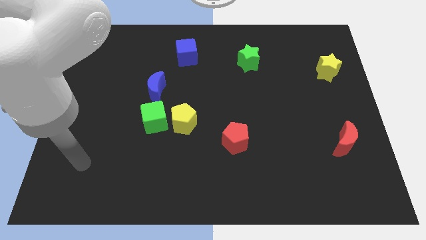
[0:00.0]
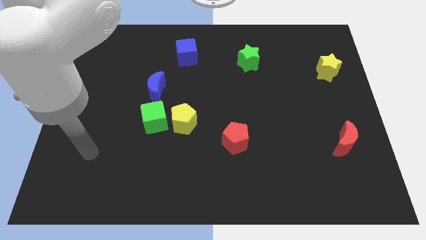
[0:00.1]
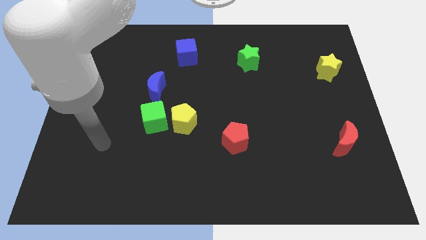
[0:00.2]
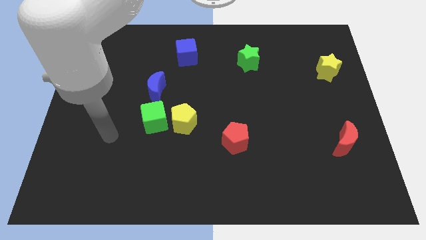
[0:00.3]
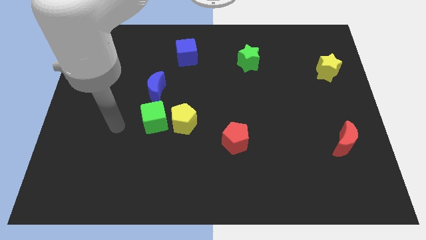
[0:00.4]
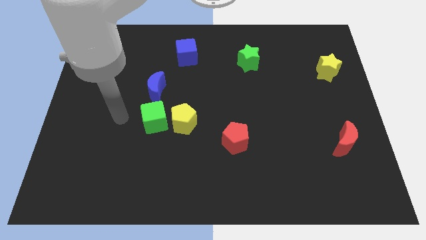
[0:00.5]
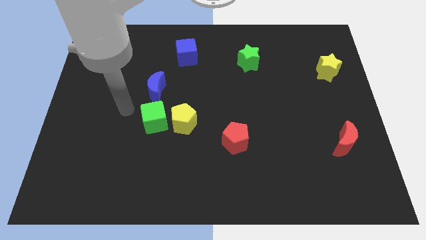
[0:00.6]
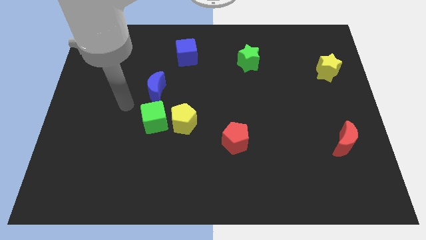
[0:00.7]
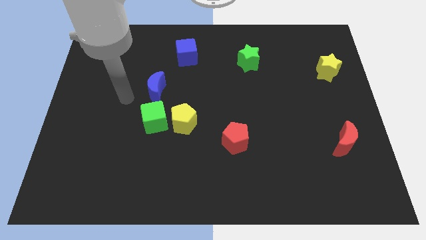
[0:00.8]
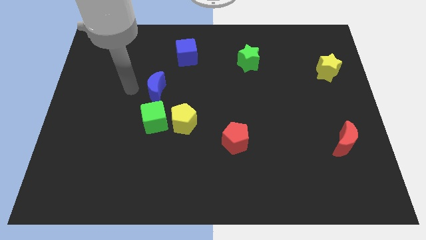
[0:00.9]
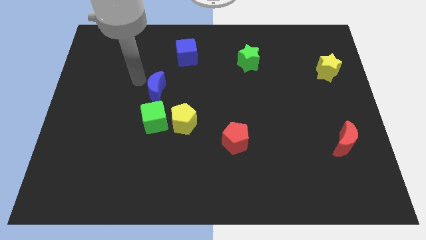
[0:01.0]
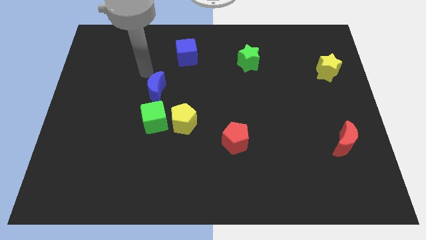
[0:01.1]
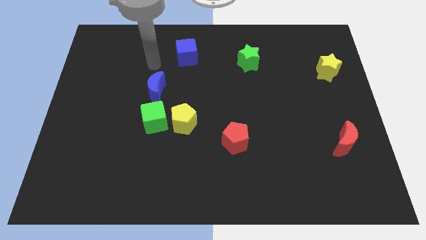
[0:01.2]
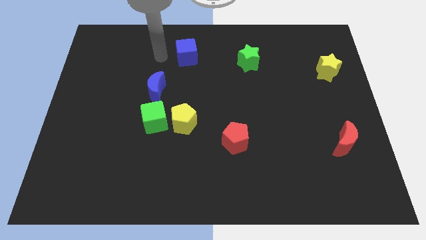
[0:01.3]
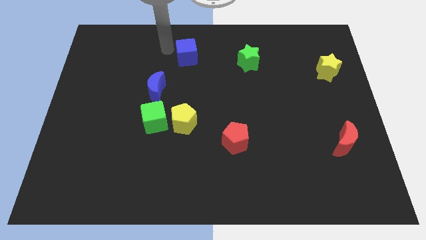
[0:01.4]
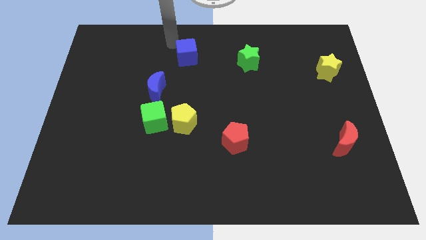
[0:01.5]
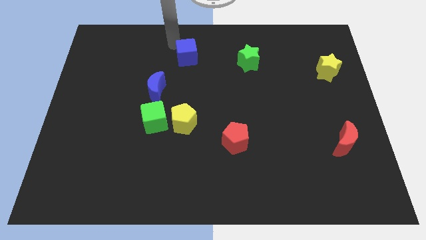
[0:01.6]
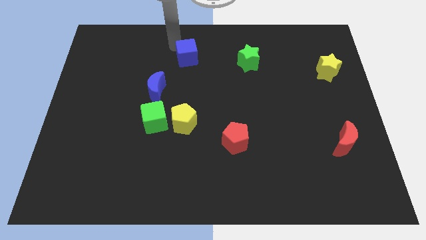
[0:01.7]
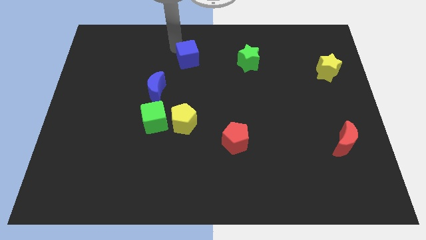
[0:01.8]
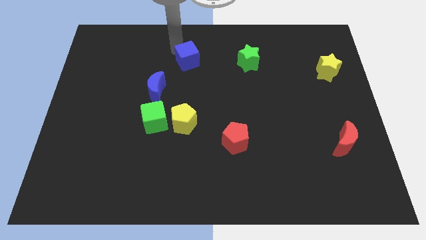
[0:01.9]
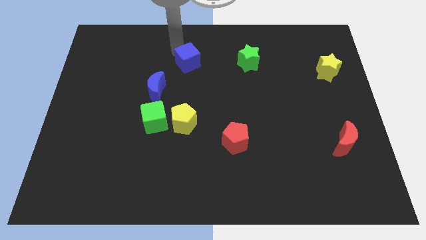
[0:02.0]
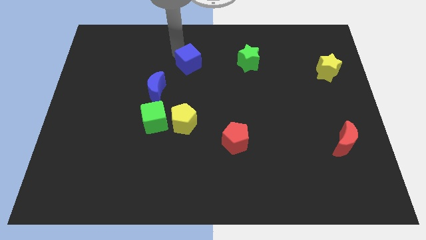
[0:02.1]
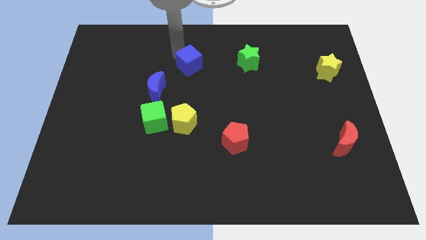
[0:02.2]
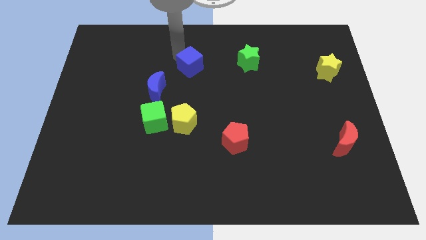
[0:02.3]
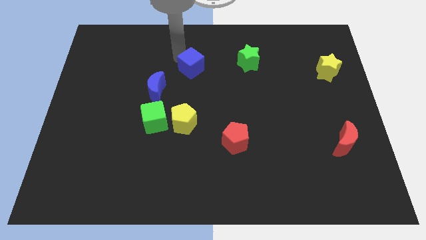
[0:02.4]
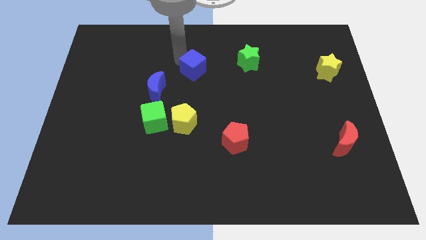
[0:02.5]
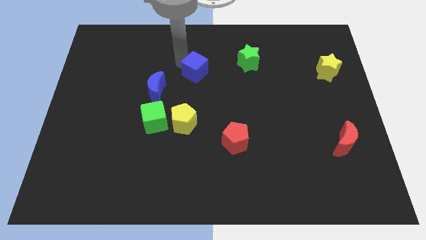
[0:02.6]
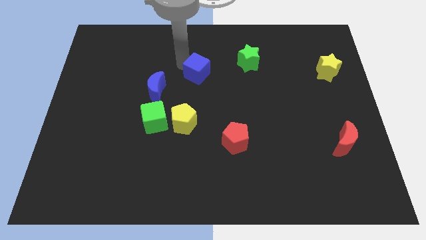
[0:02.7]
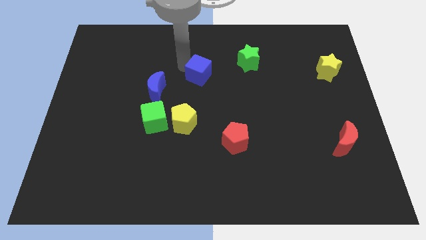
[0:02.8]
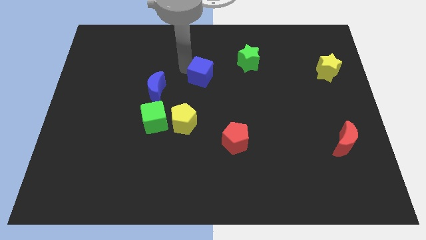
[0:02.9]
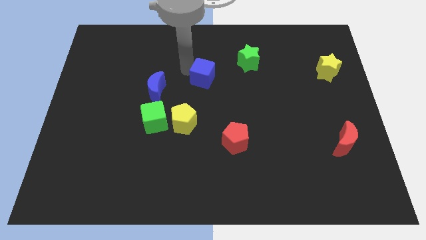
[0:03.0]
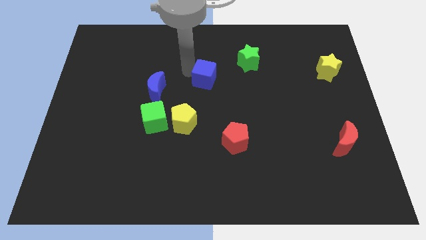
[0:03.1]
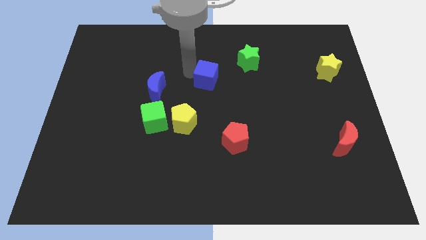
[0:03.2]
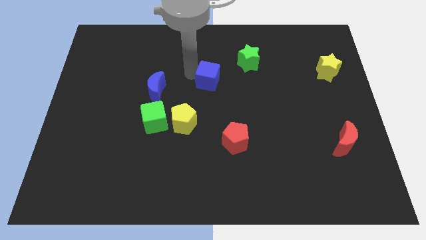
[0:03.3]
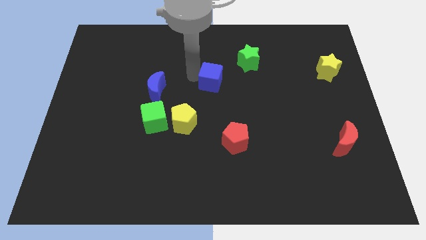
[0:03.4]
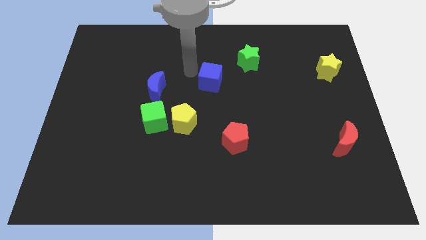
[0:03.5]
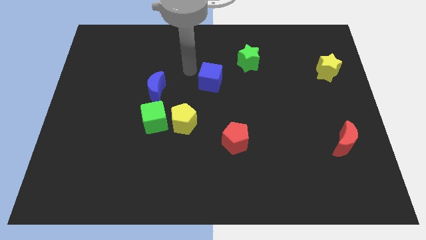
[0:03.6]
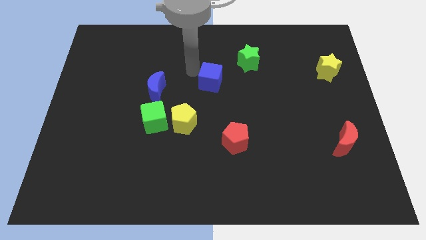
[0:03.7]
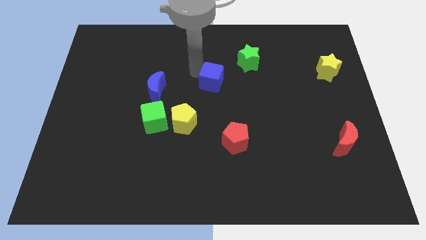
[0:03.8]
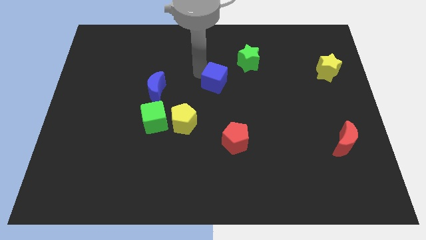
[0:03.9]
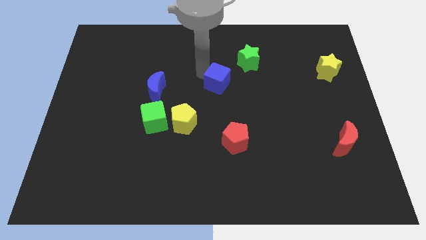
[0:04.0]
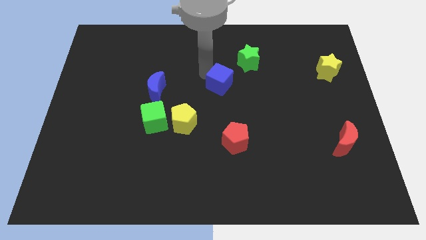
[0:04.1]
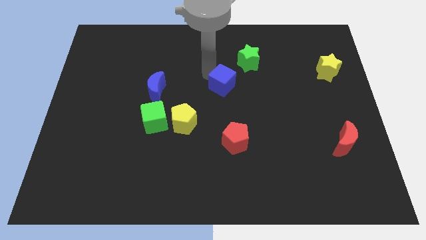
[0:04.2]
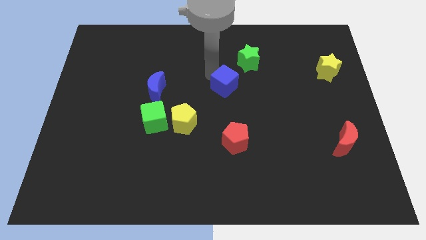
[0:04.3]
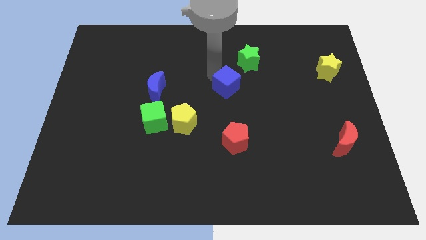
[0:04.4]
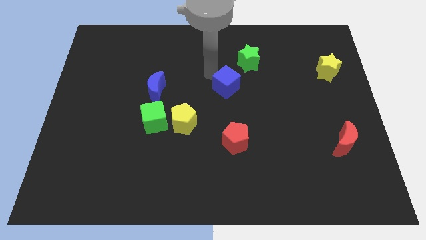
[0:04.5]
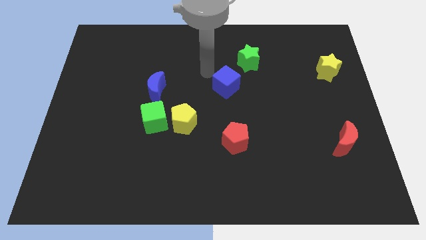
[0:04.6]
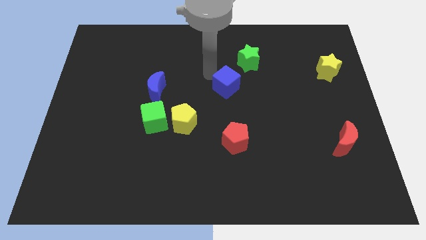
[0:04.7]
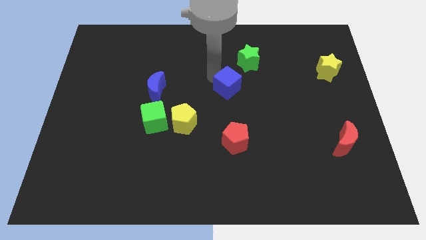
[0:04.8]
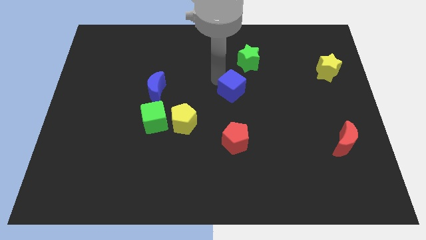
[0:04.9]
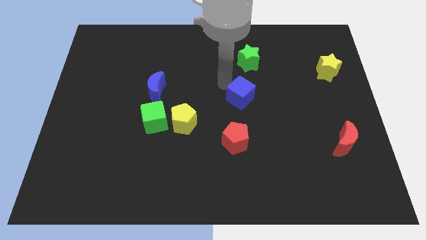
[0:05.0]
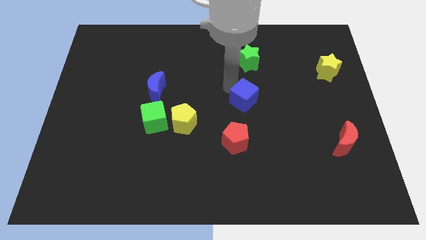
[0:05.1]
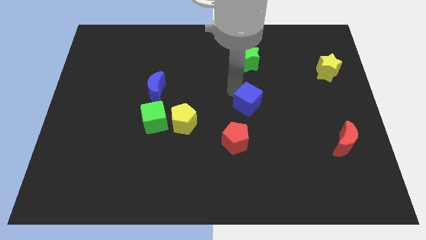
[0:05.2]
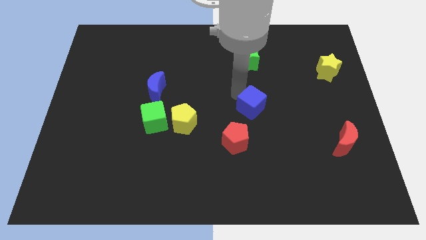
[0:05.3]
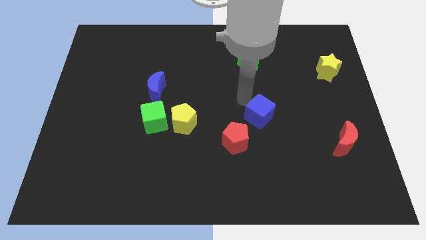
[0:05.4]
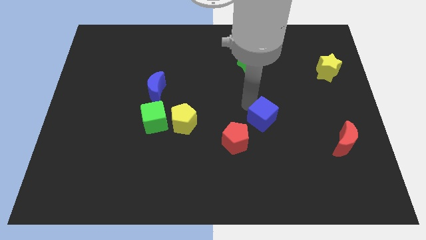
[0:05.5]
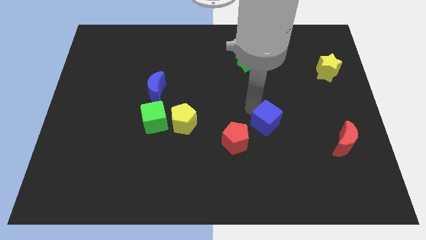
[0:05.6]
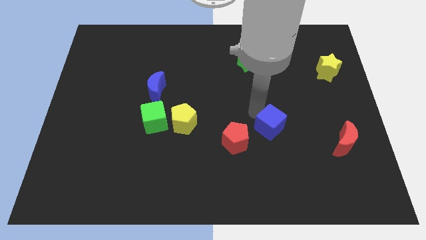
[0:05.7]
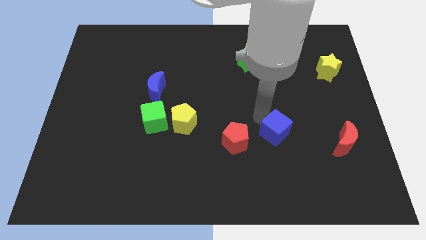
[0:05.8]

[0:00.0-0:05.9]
move the blue cube just left of the red moon

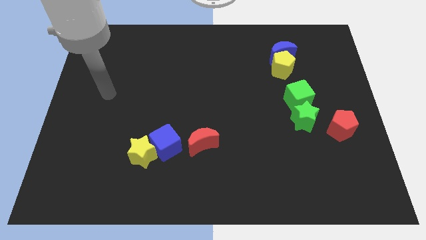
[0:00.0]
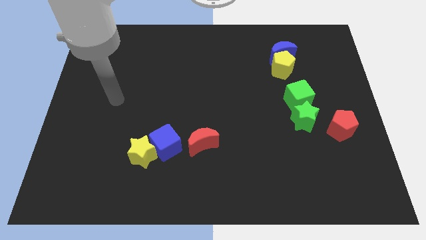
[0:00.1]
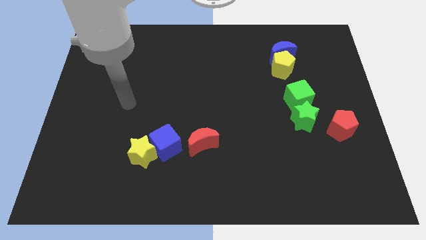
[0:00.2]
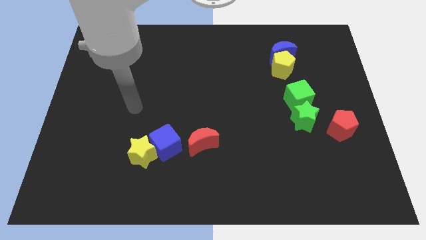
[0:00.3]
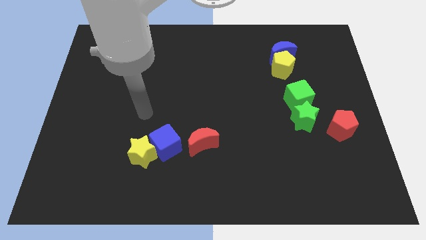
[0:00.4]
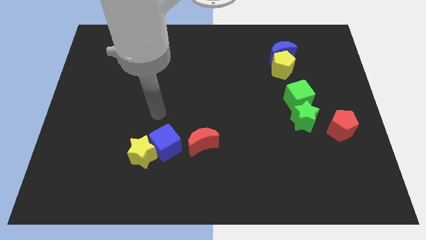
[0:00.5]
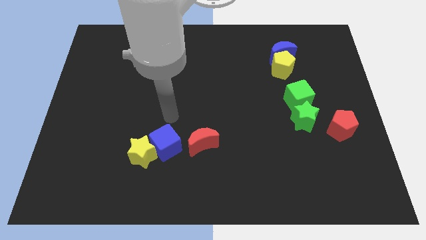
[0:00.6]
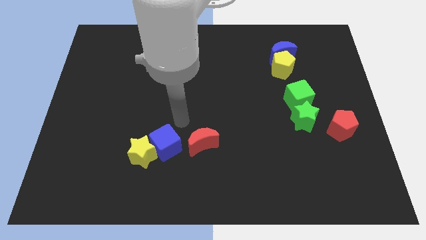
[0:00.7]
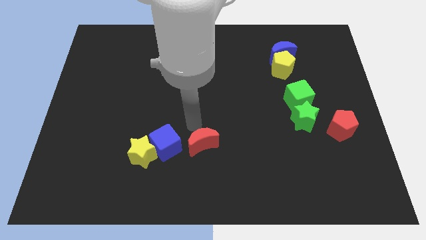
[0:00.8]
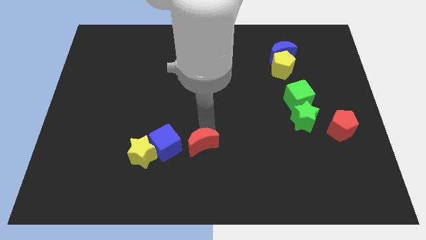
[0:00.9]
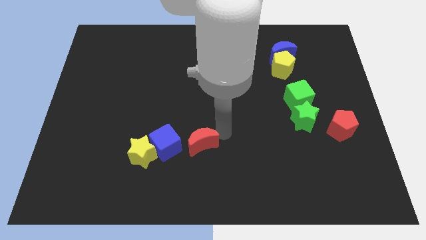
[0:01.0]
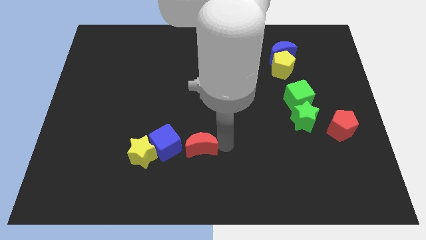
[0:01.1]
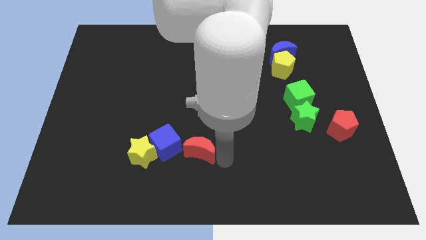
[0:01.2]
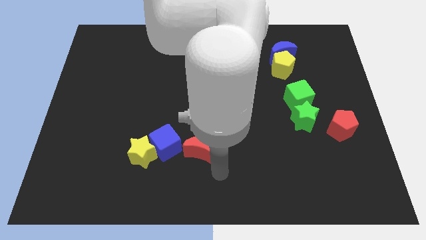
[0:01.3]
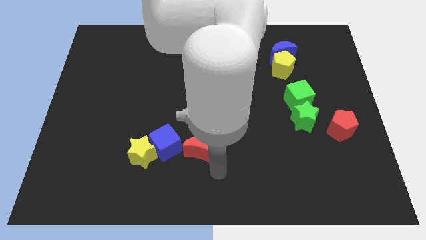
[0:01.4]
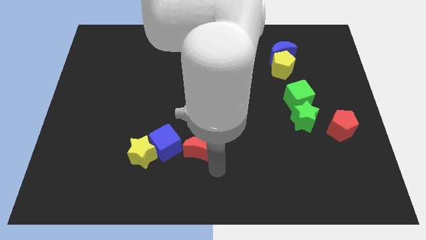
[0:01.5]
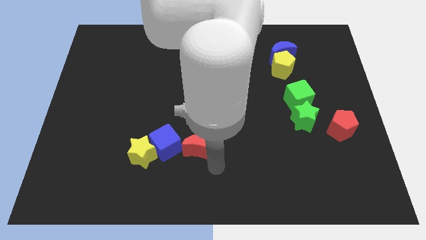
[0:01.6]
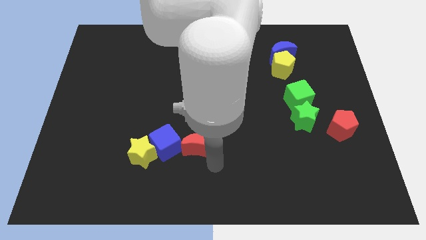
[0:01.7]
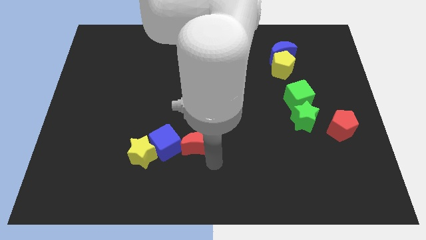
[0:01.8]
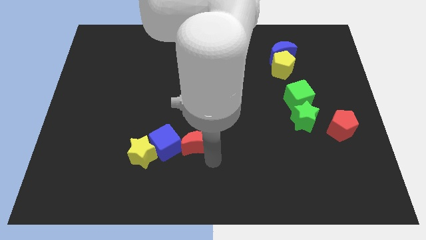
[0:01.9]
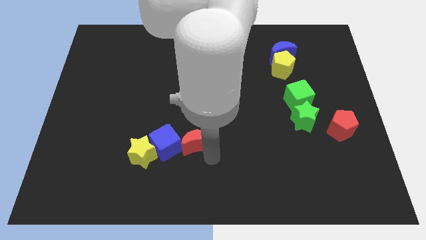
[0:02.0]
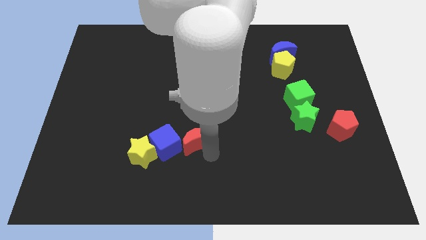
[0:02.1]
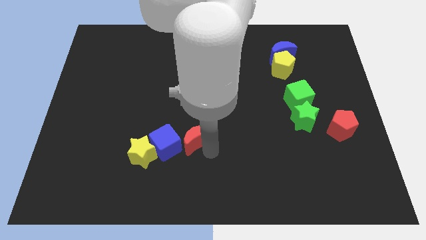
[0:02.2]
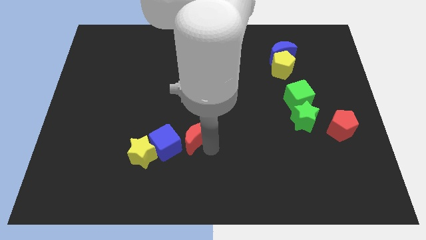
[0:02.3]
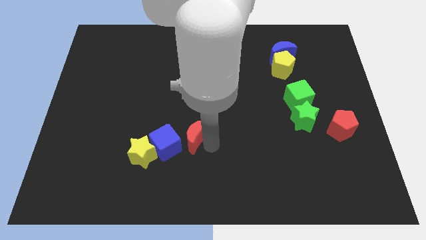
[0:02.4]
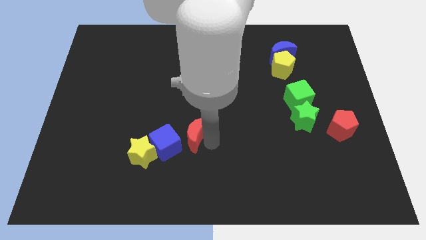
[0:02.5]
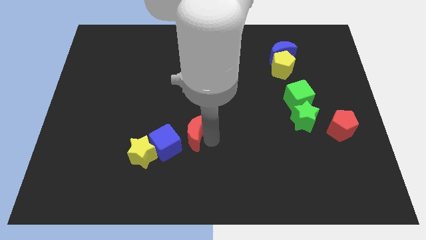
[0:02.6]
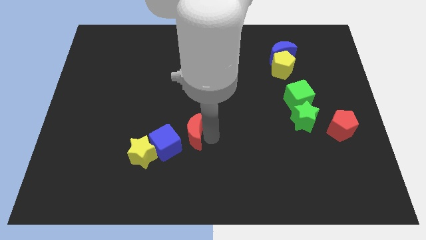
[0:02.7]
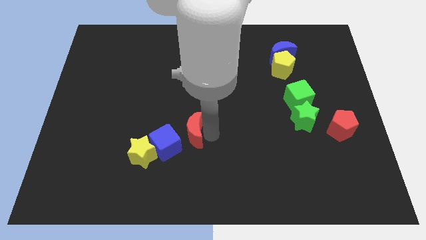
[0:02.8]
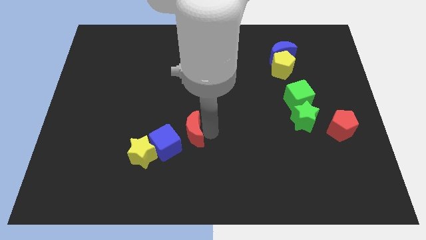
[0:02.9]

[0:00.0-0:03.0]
slide the red moon diagonally up and to the right of the yellow star
